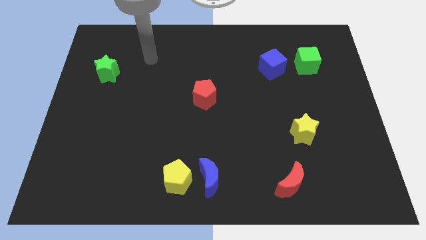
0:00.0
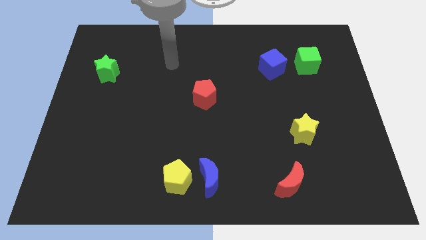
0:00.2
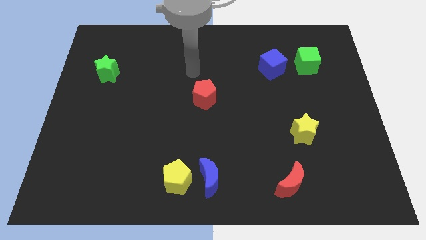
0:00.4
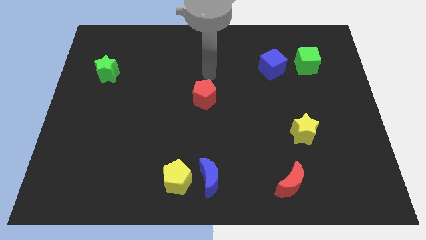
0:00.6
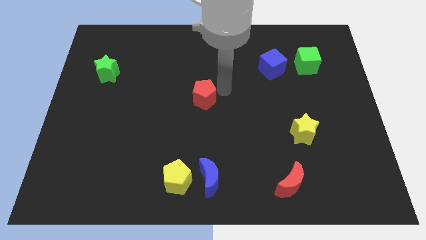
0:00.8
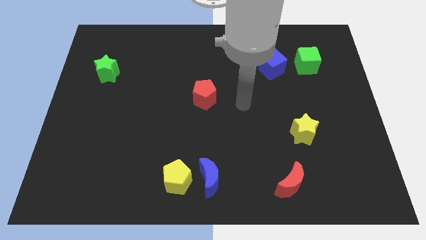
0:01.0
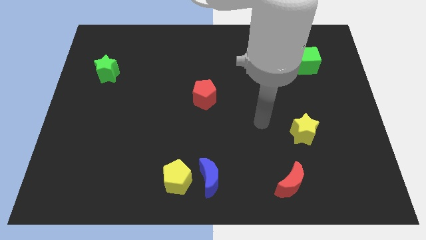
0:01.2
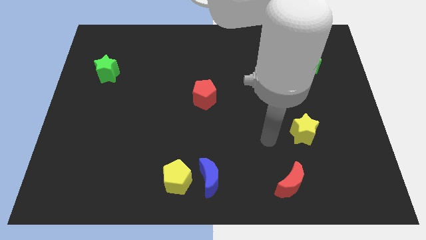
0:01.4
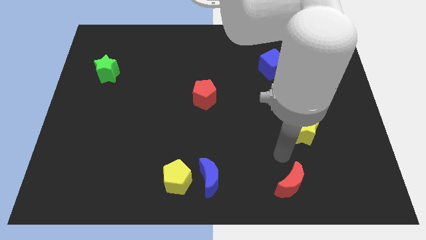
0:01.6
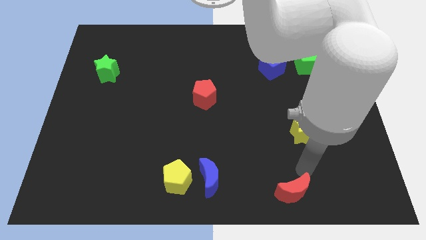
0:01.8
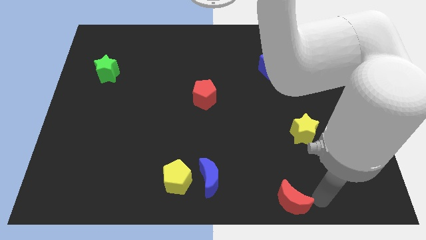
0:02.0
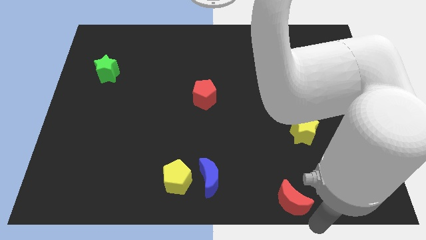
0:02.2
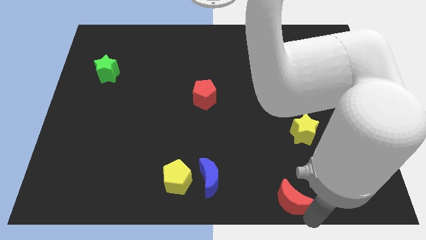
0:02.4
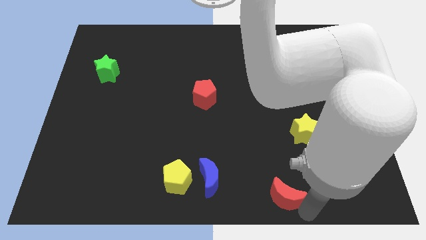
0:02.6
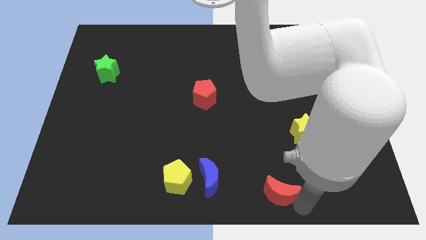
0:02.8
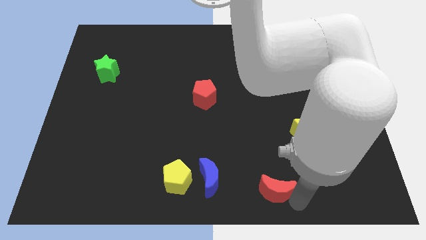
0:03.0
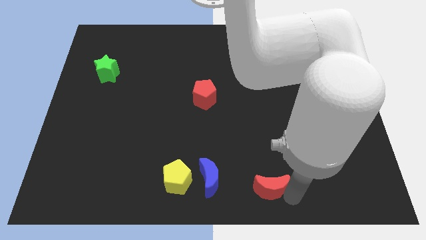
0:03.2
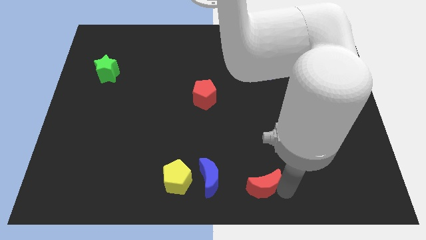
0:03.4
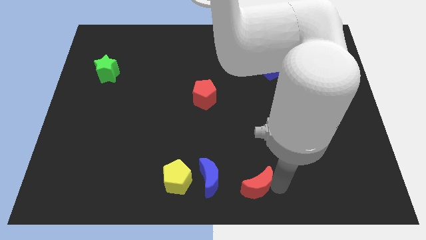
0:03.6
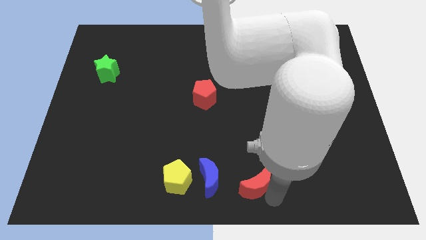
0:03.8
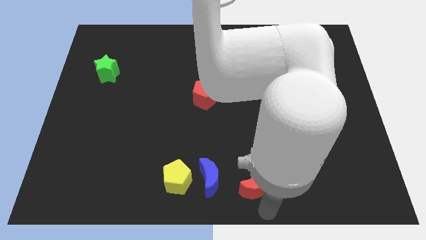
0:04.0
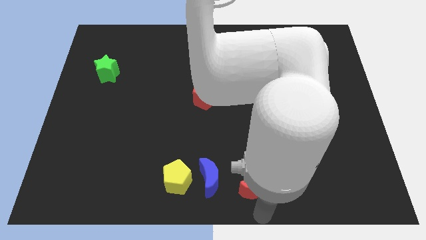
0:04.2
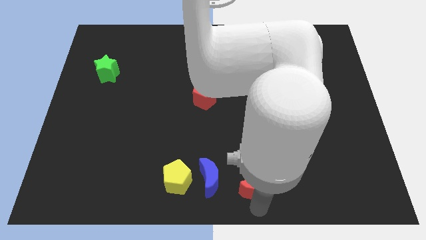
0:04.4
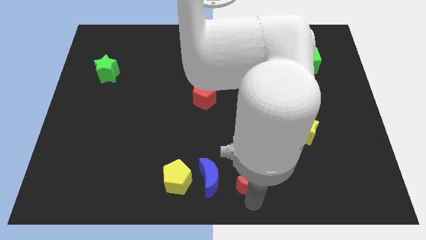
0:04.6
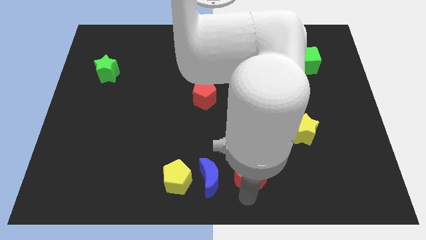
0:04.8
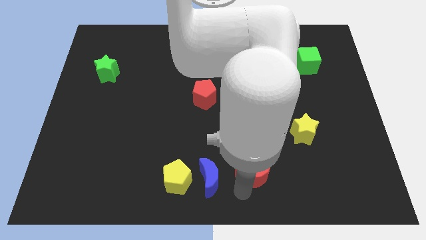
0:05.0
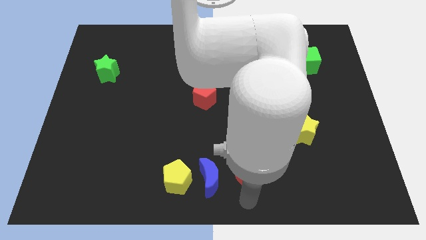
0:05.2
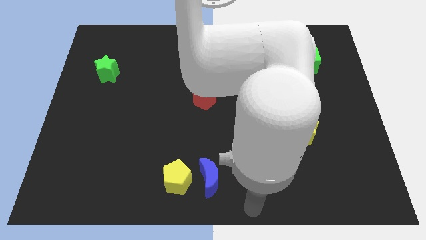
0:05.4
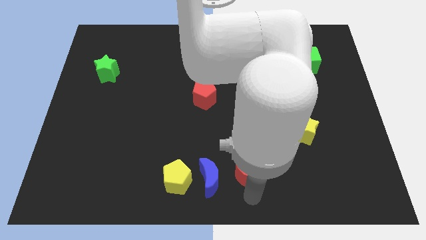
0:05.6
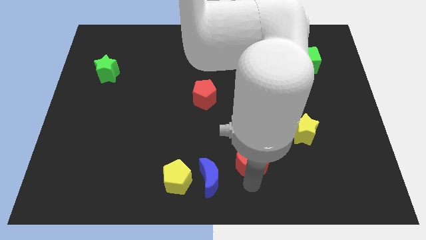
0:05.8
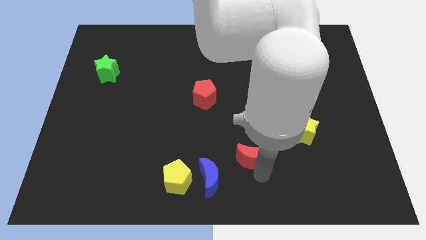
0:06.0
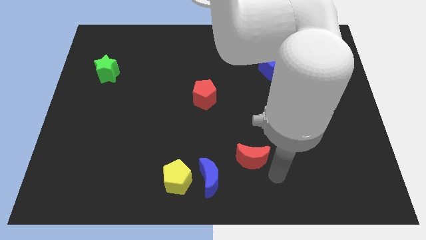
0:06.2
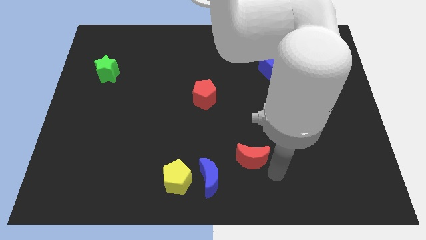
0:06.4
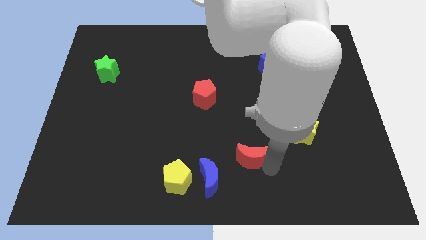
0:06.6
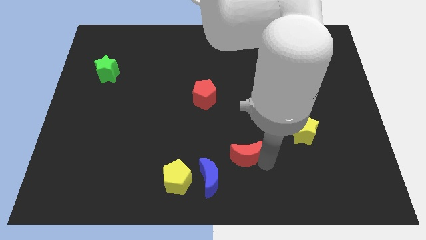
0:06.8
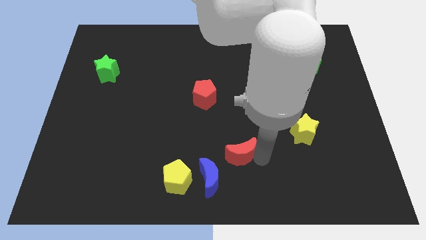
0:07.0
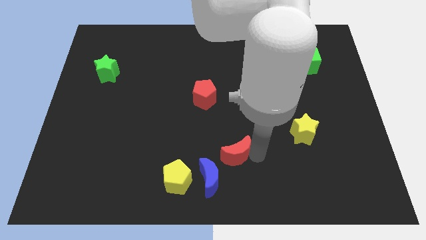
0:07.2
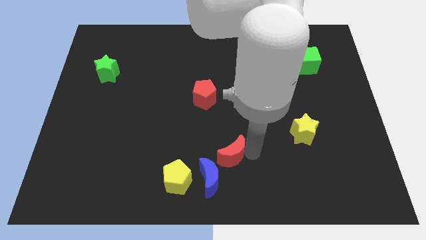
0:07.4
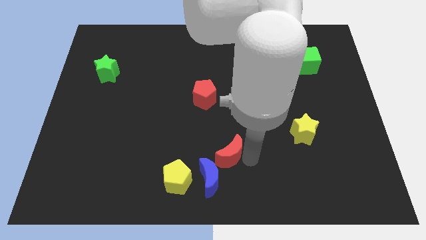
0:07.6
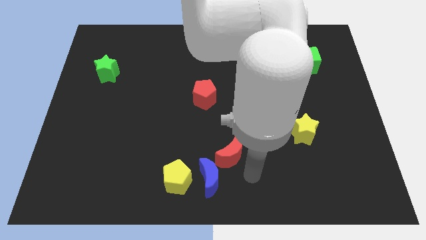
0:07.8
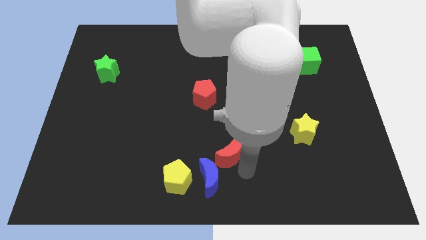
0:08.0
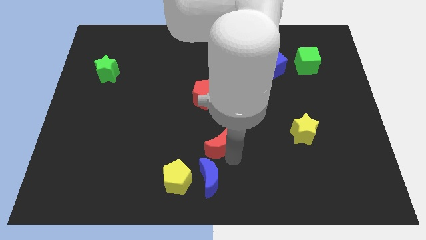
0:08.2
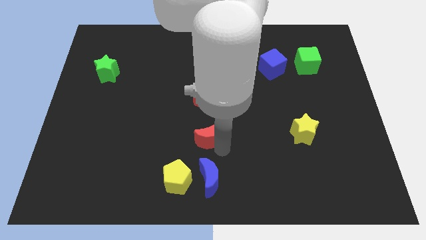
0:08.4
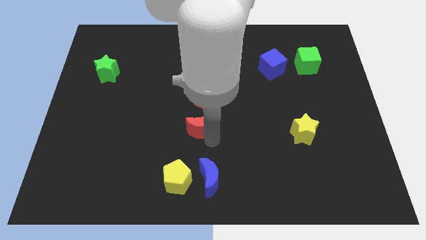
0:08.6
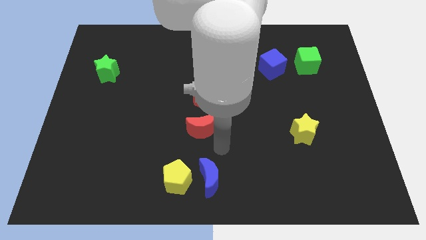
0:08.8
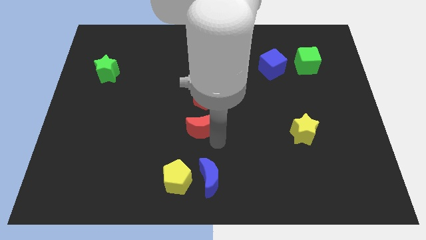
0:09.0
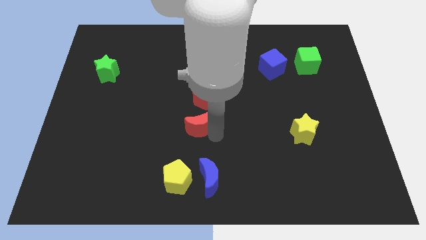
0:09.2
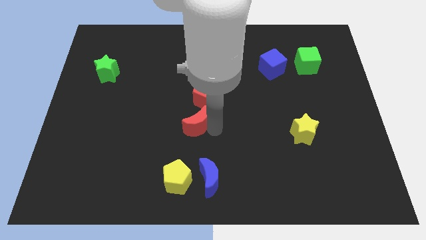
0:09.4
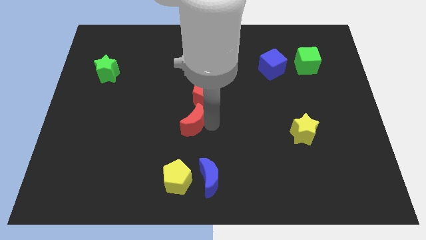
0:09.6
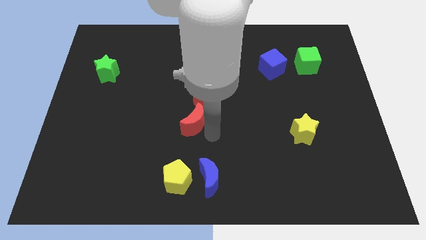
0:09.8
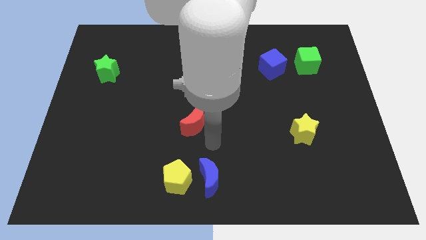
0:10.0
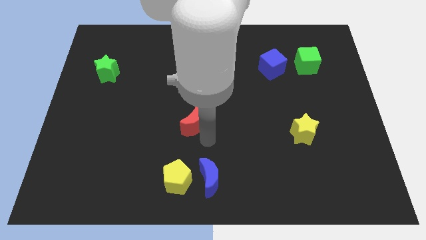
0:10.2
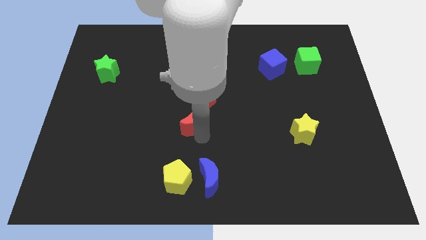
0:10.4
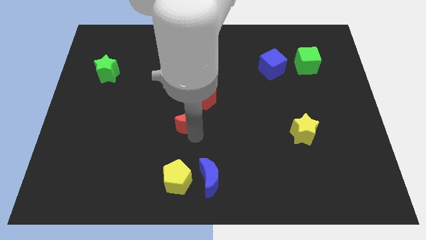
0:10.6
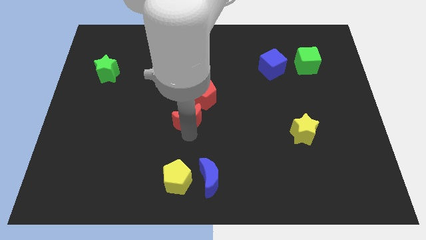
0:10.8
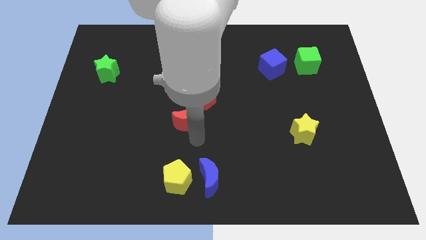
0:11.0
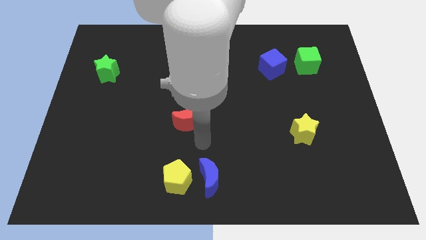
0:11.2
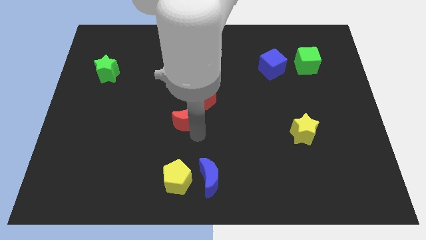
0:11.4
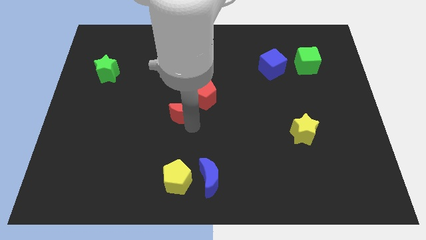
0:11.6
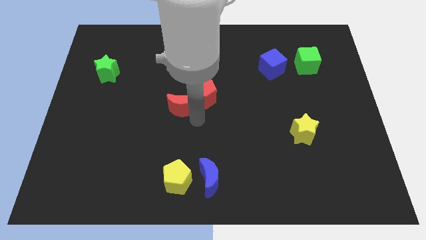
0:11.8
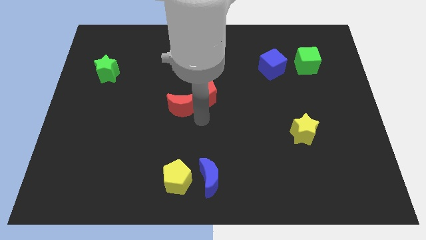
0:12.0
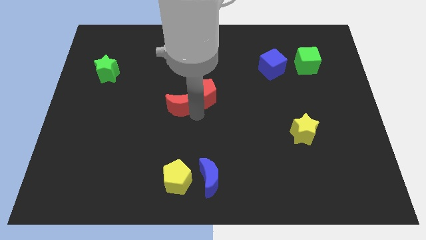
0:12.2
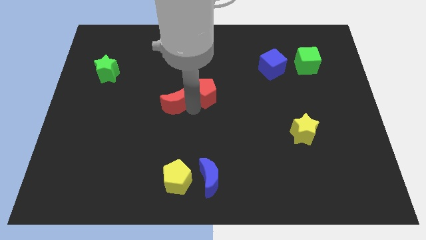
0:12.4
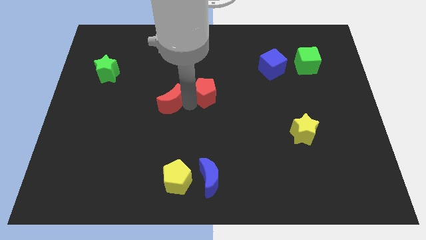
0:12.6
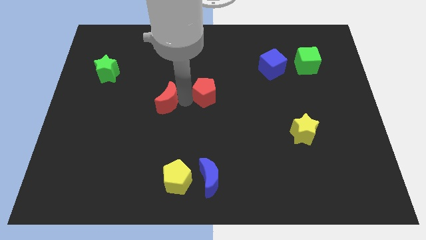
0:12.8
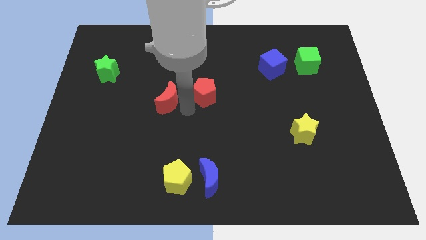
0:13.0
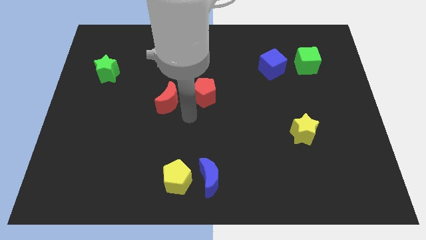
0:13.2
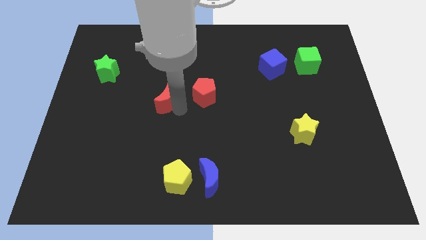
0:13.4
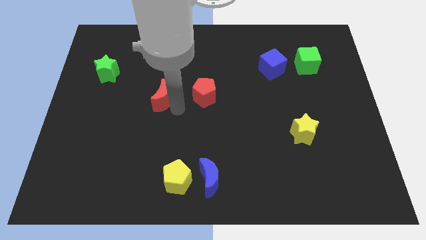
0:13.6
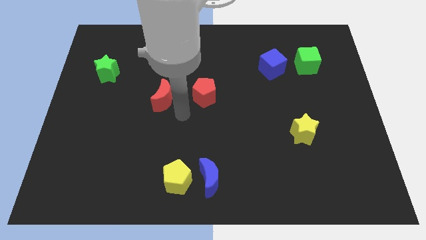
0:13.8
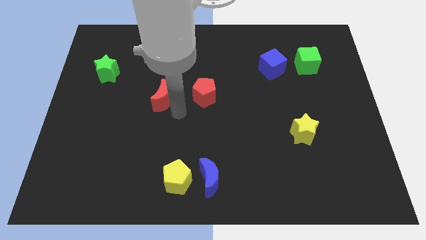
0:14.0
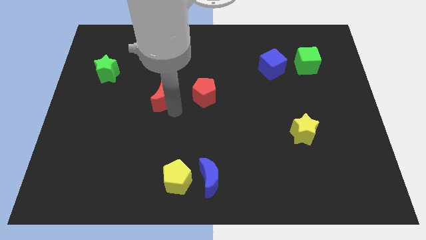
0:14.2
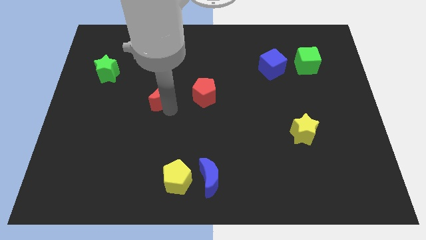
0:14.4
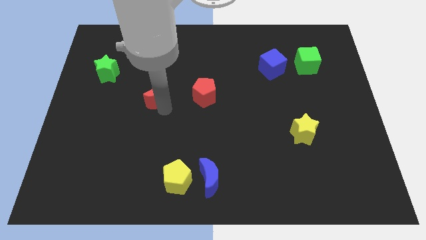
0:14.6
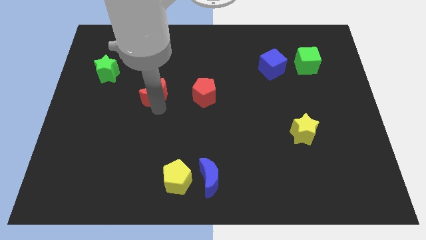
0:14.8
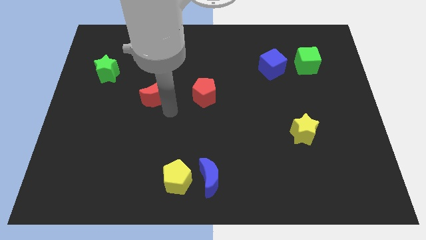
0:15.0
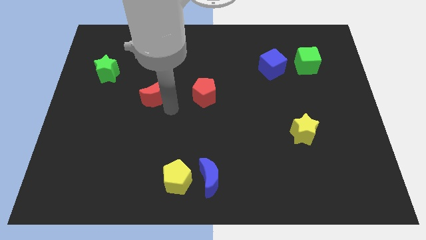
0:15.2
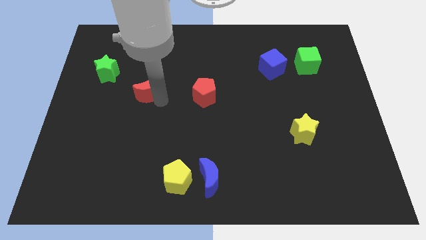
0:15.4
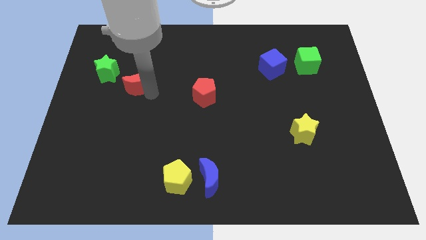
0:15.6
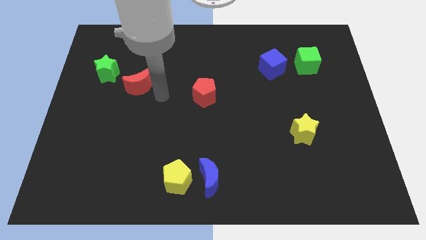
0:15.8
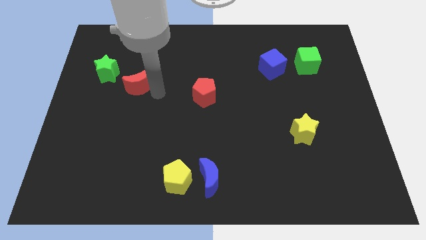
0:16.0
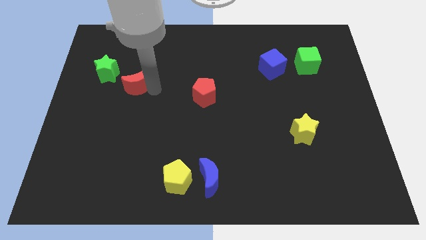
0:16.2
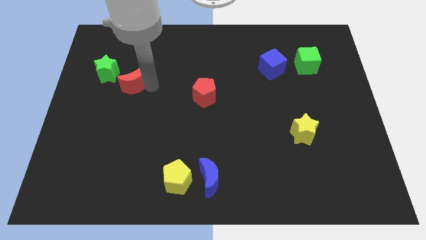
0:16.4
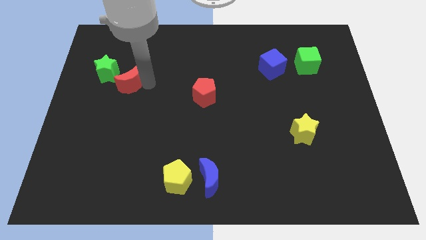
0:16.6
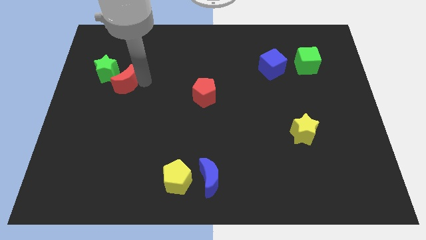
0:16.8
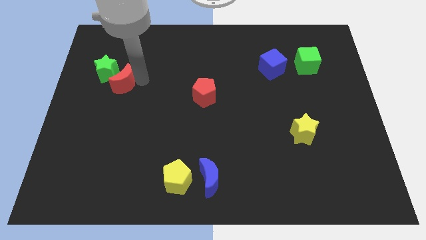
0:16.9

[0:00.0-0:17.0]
move the red moon close to the green star
